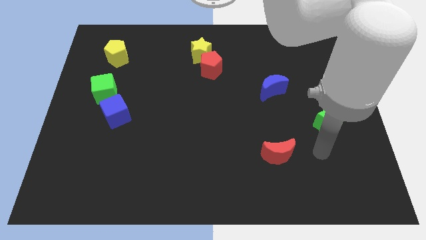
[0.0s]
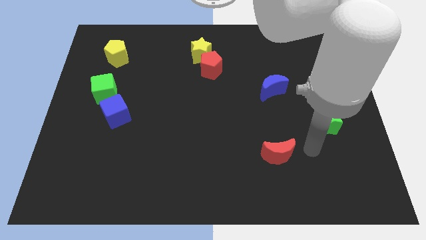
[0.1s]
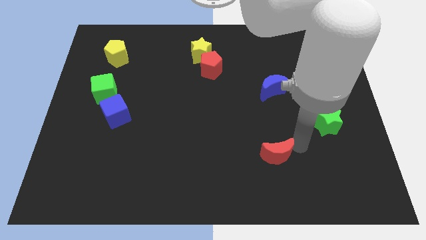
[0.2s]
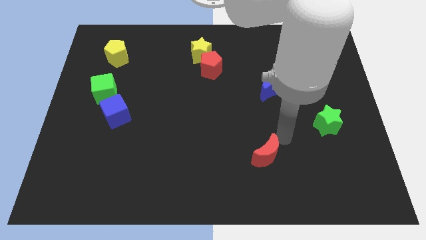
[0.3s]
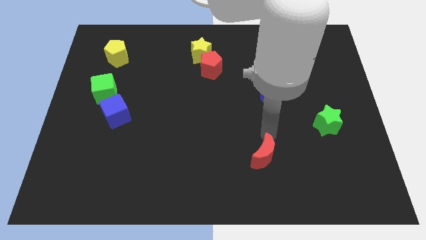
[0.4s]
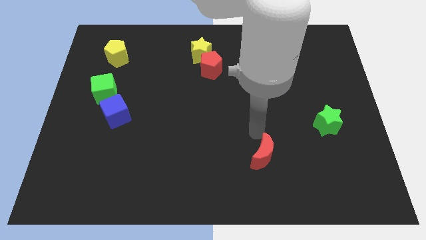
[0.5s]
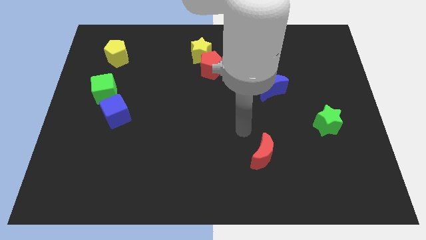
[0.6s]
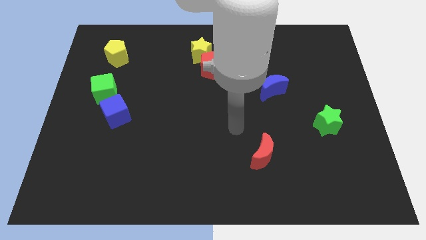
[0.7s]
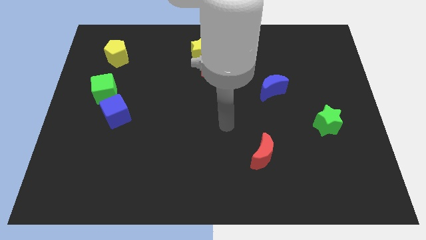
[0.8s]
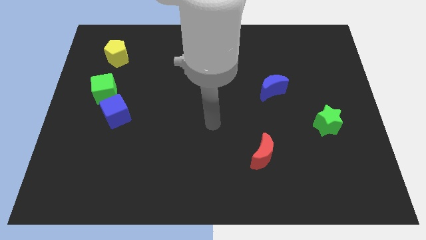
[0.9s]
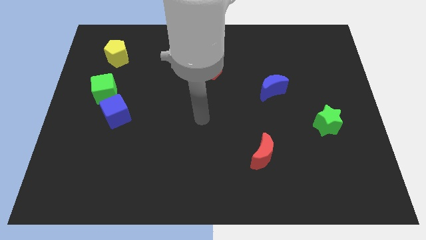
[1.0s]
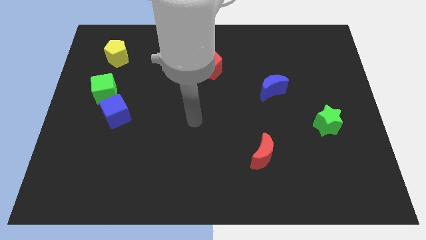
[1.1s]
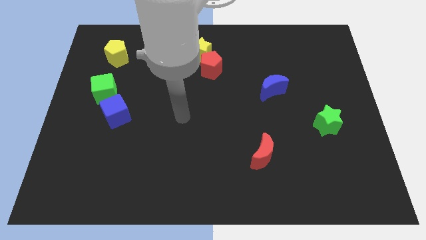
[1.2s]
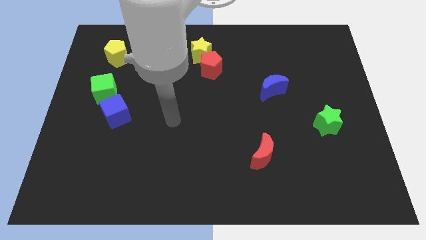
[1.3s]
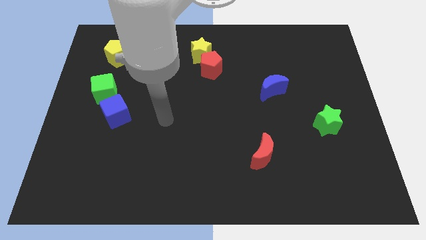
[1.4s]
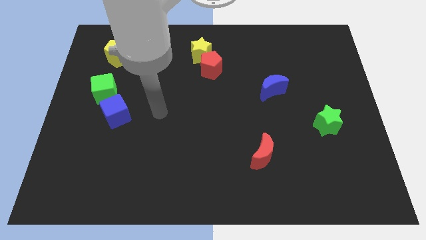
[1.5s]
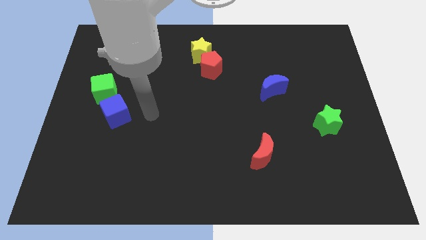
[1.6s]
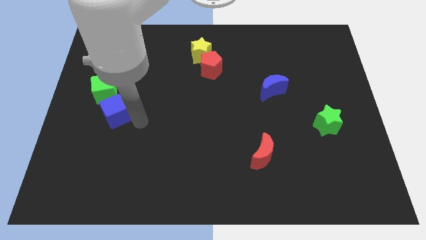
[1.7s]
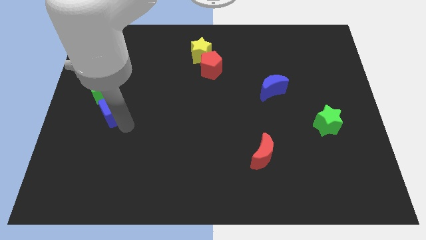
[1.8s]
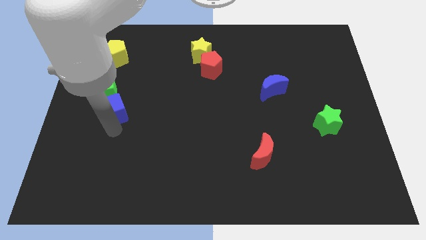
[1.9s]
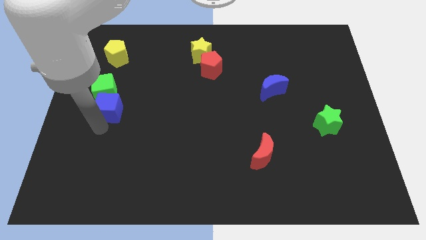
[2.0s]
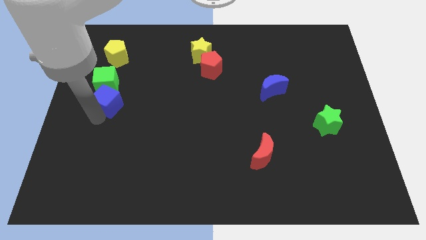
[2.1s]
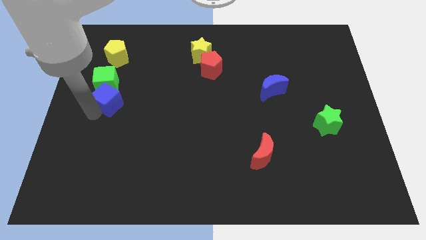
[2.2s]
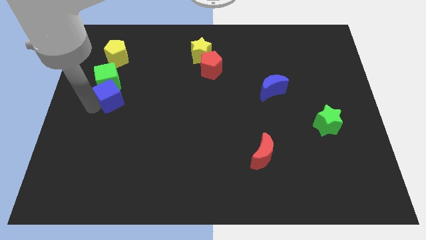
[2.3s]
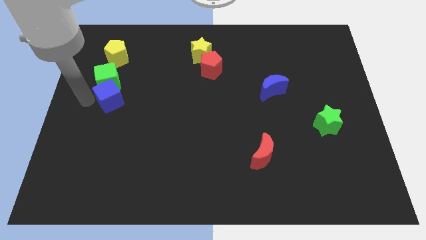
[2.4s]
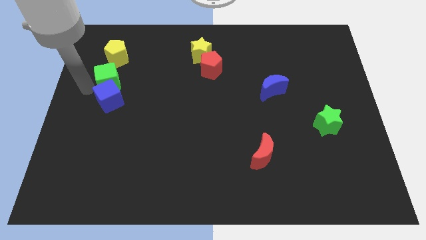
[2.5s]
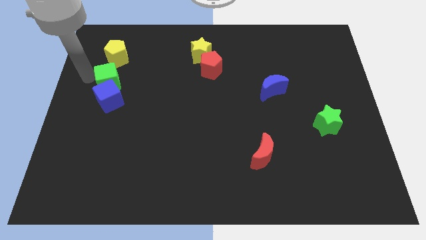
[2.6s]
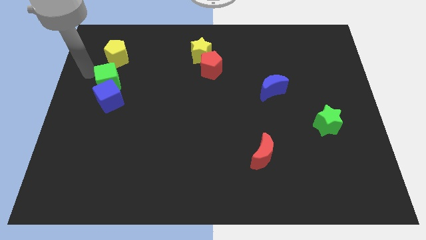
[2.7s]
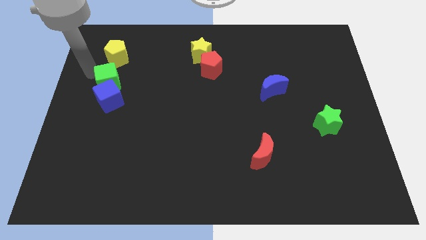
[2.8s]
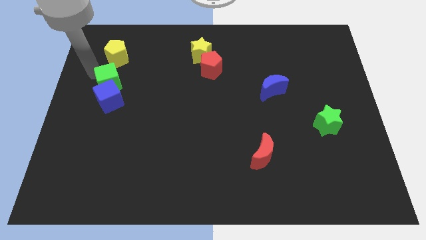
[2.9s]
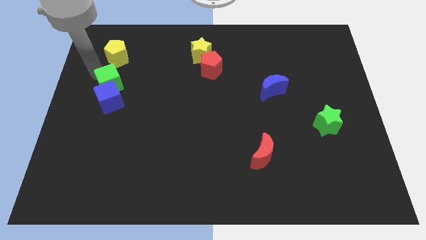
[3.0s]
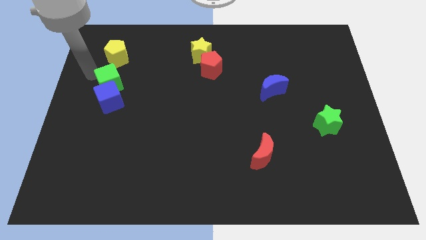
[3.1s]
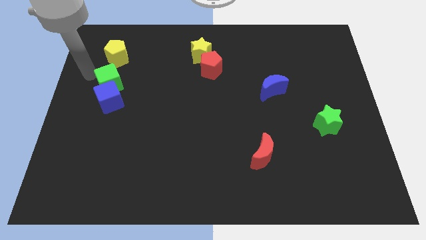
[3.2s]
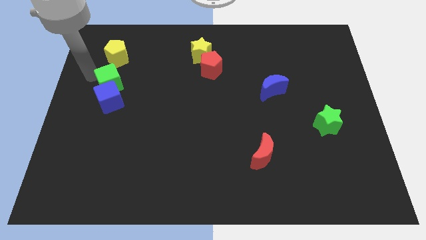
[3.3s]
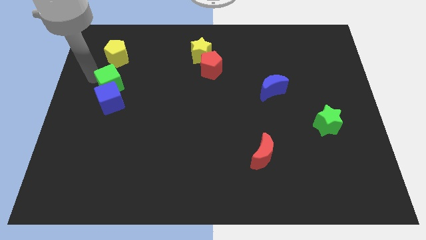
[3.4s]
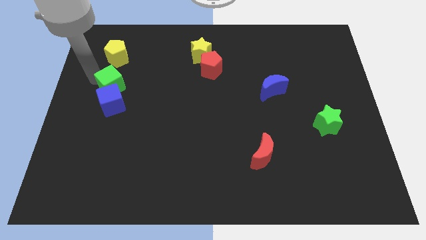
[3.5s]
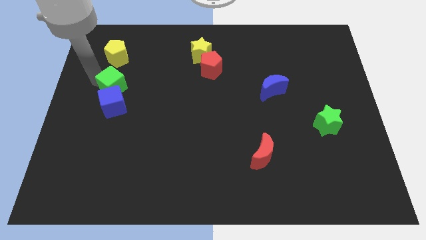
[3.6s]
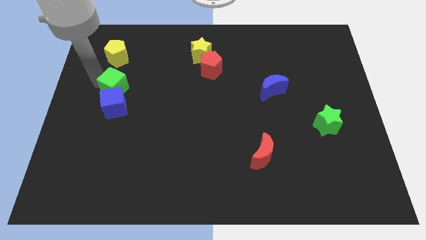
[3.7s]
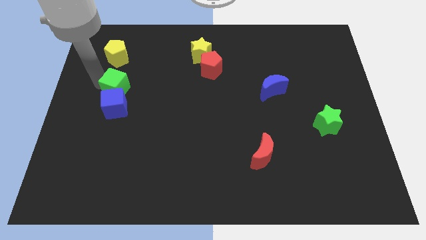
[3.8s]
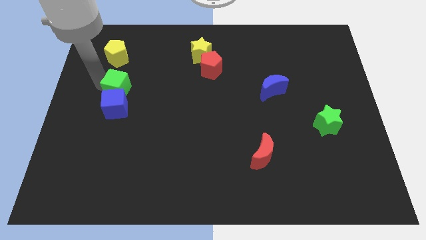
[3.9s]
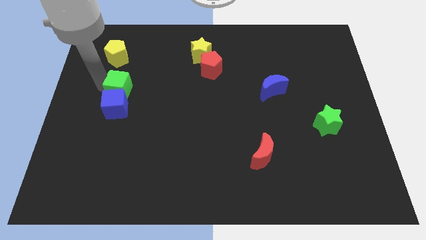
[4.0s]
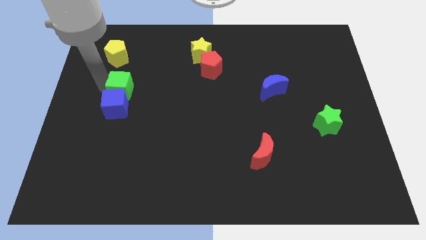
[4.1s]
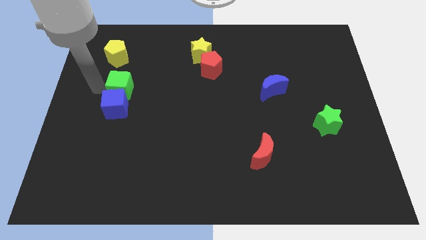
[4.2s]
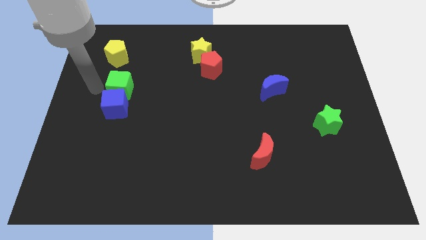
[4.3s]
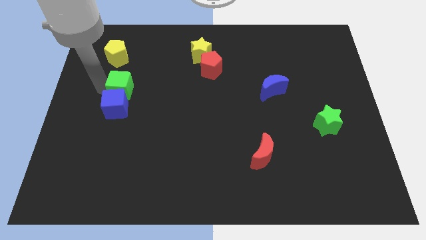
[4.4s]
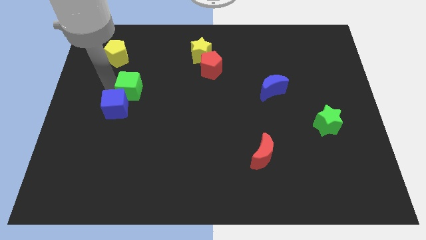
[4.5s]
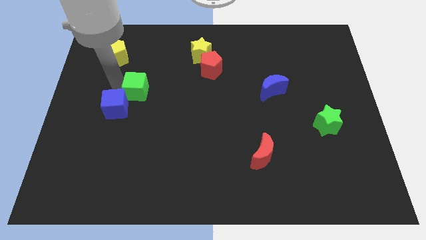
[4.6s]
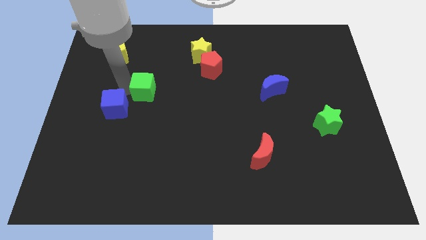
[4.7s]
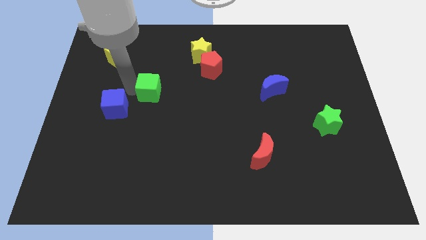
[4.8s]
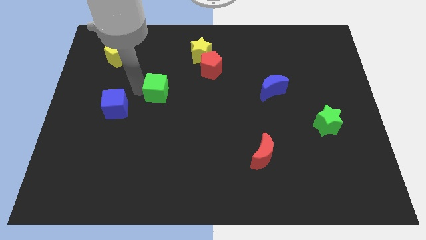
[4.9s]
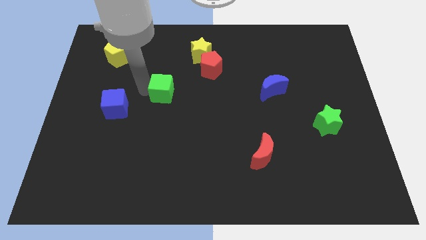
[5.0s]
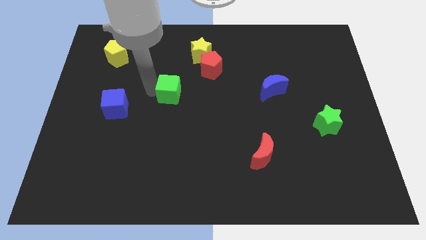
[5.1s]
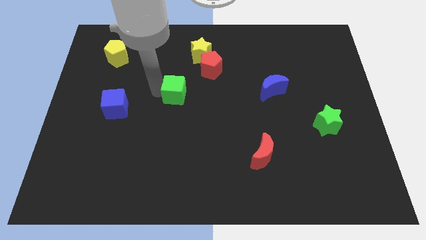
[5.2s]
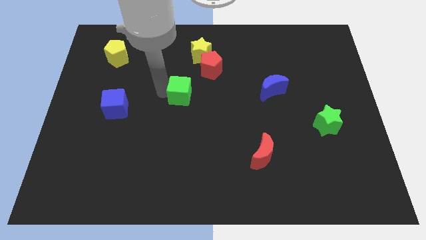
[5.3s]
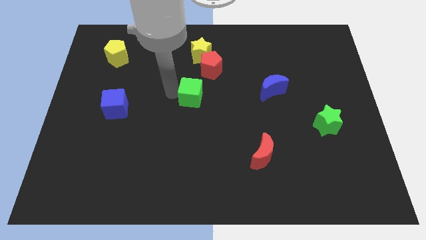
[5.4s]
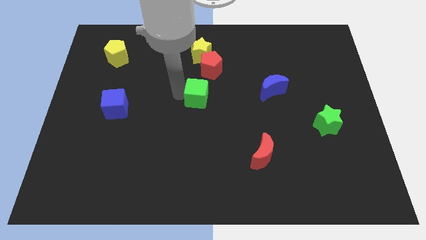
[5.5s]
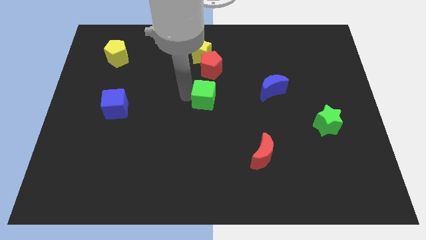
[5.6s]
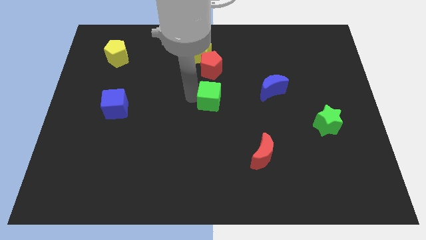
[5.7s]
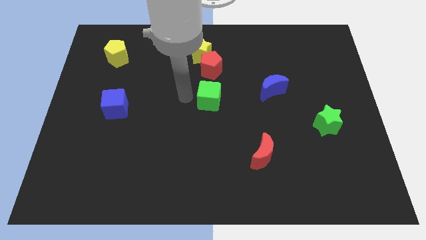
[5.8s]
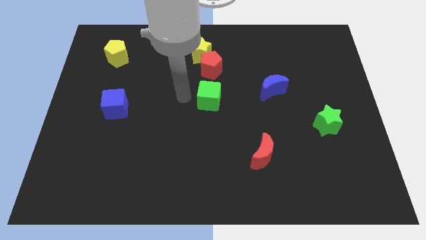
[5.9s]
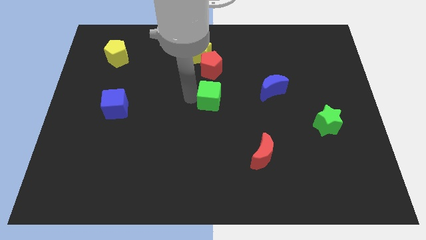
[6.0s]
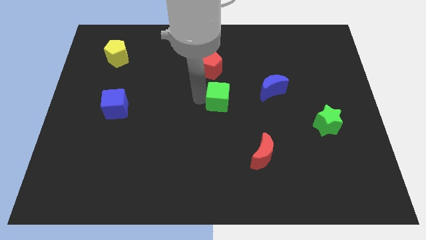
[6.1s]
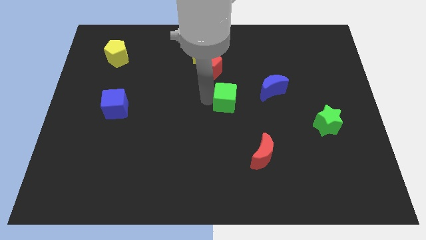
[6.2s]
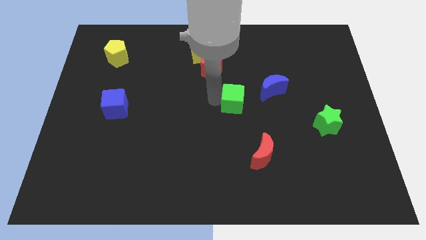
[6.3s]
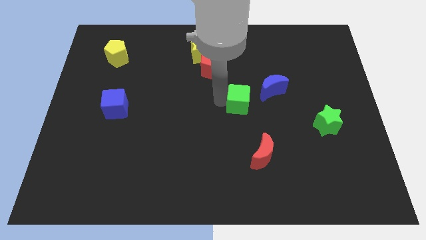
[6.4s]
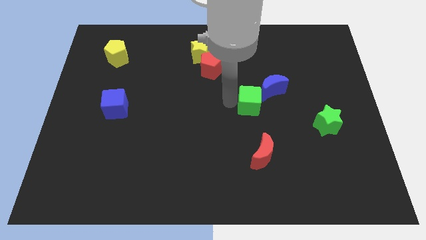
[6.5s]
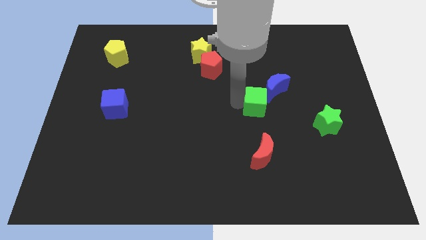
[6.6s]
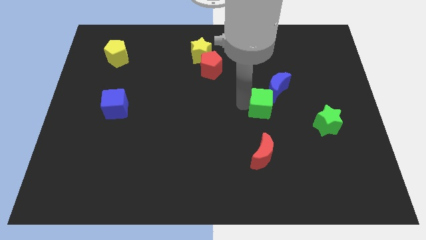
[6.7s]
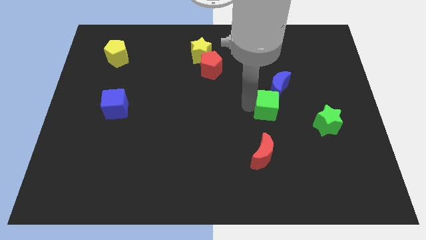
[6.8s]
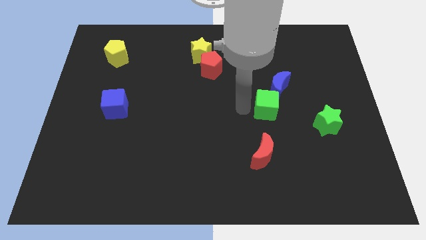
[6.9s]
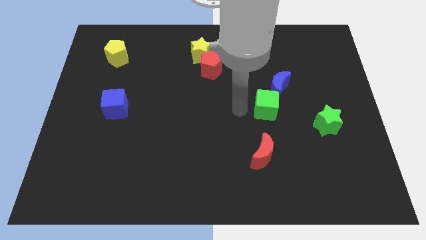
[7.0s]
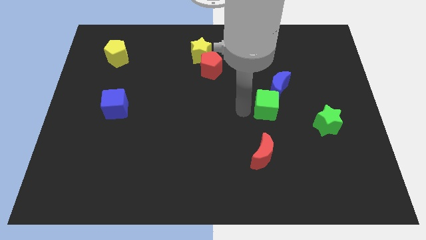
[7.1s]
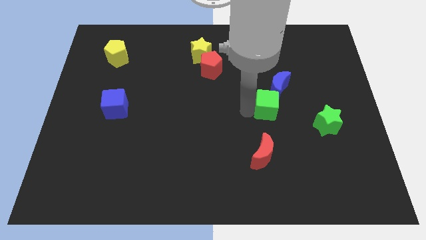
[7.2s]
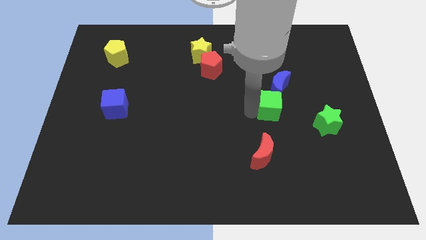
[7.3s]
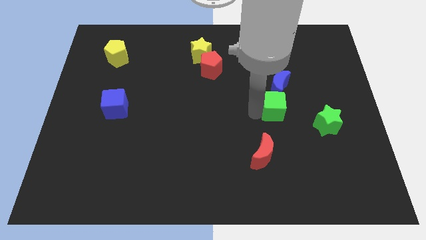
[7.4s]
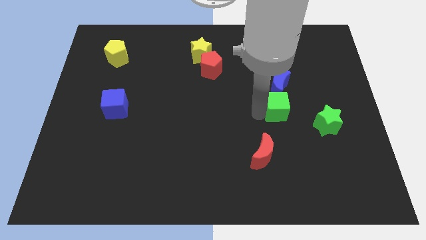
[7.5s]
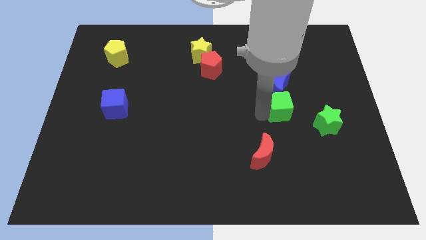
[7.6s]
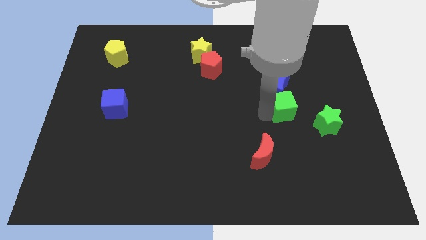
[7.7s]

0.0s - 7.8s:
slide the green cube to the top left of the green star
